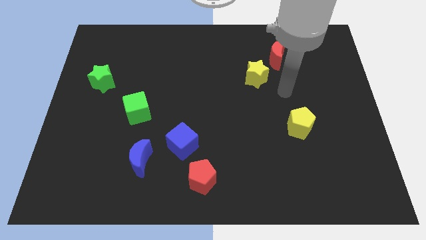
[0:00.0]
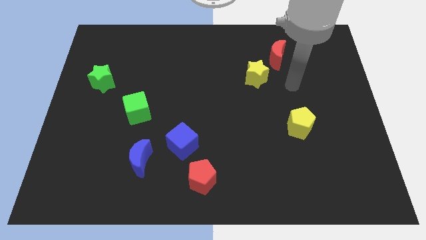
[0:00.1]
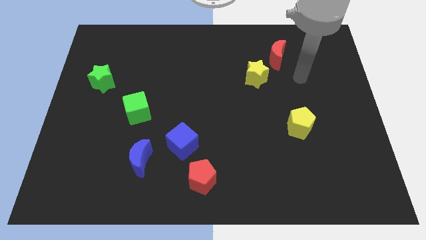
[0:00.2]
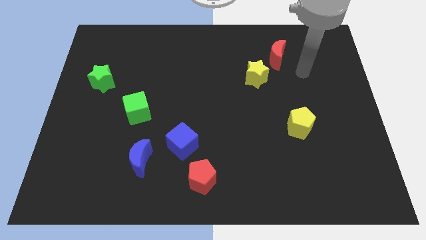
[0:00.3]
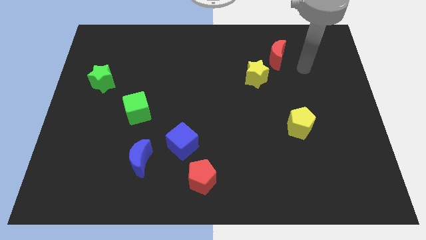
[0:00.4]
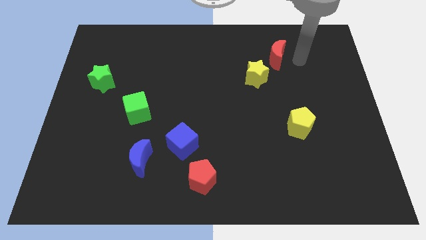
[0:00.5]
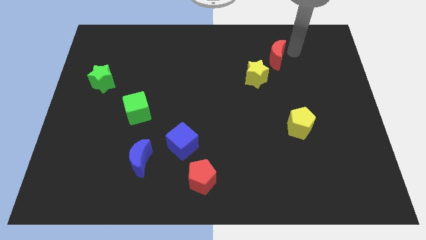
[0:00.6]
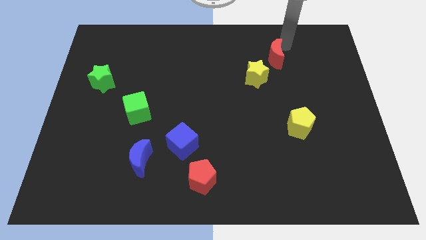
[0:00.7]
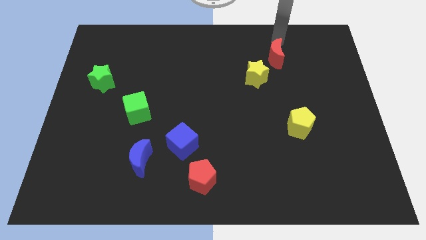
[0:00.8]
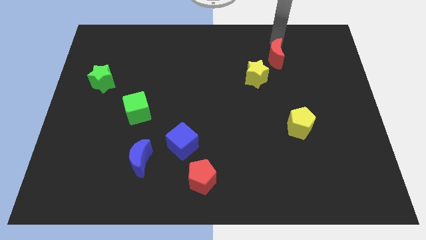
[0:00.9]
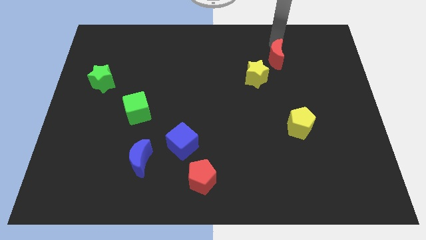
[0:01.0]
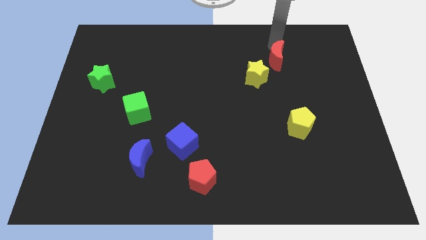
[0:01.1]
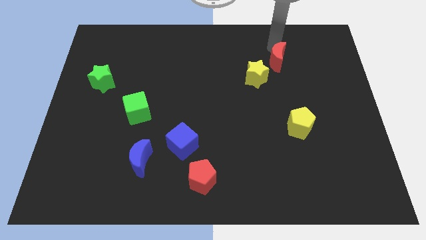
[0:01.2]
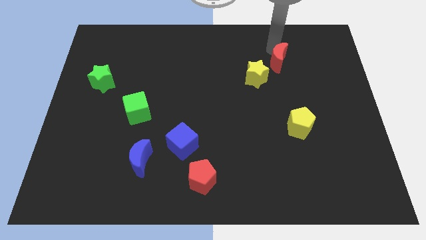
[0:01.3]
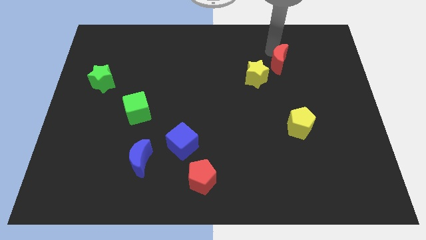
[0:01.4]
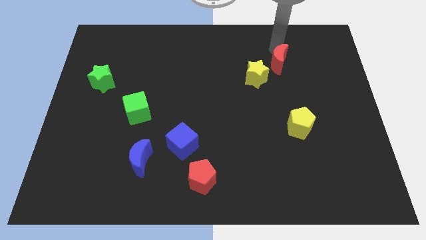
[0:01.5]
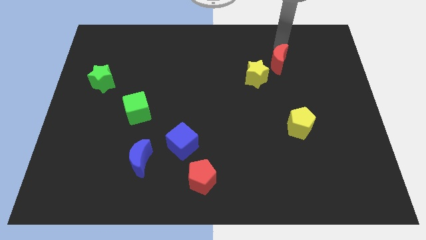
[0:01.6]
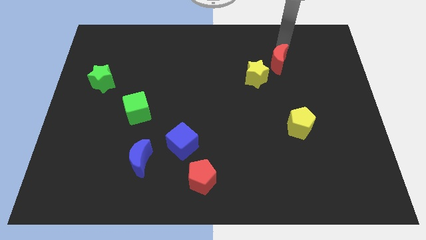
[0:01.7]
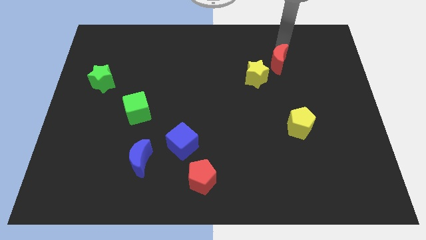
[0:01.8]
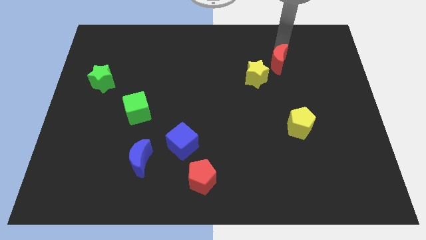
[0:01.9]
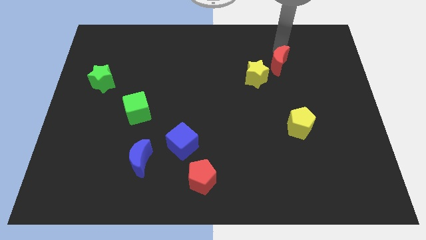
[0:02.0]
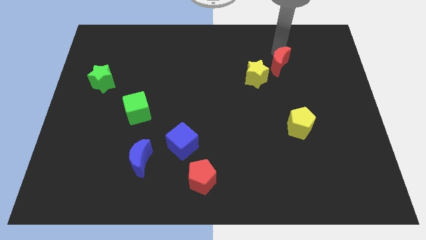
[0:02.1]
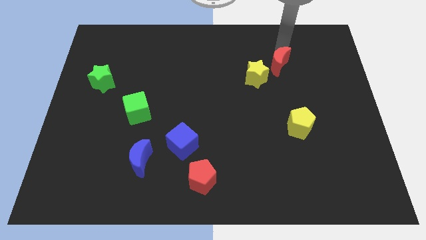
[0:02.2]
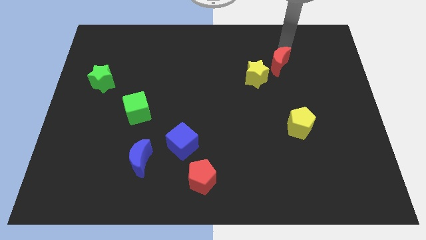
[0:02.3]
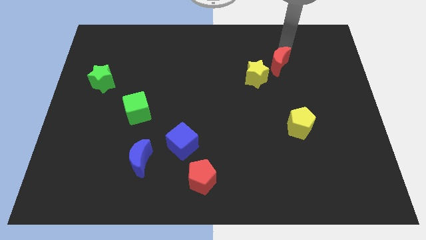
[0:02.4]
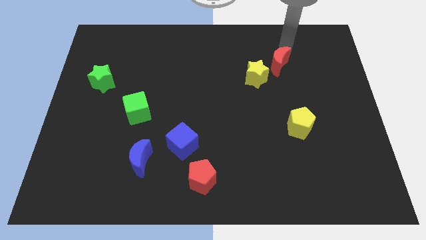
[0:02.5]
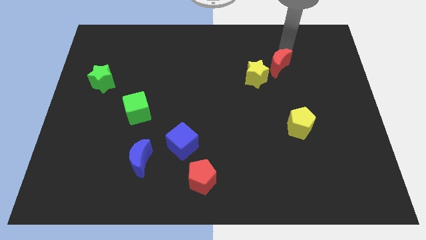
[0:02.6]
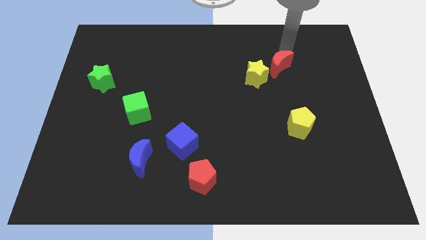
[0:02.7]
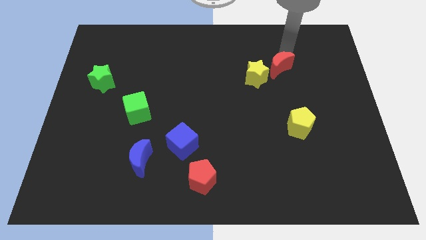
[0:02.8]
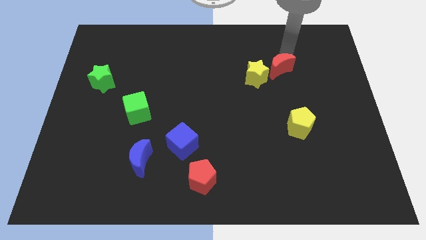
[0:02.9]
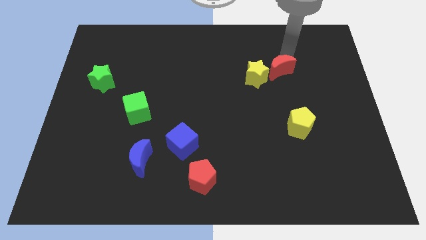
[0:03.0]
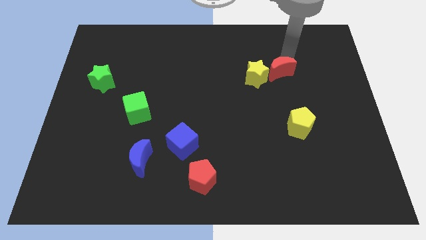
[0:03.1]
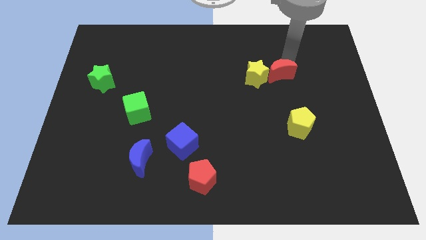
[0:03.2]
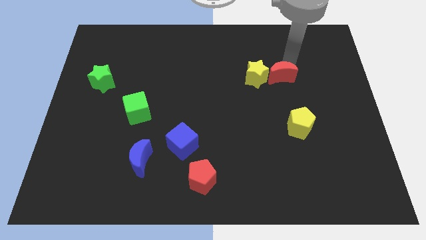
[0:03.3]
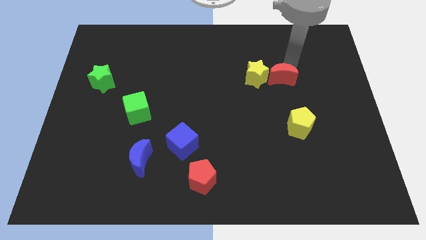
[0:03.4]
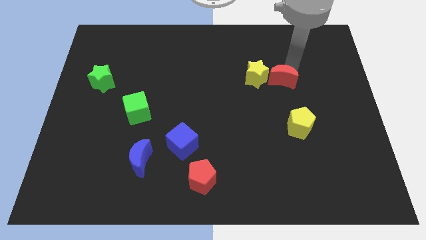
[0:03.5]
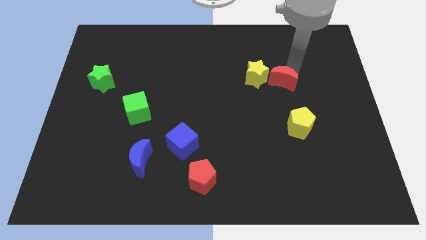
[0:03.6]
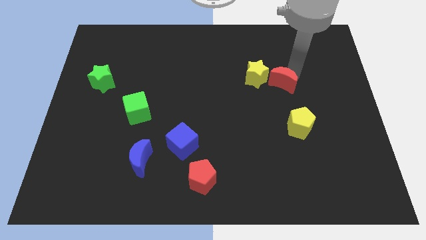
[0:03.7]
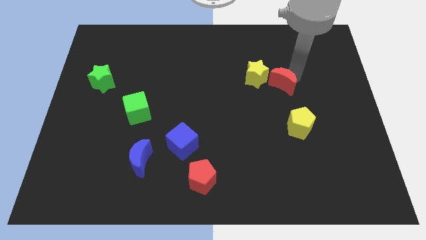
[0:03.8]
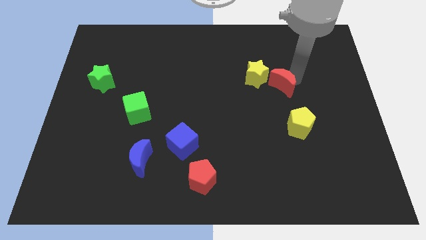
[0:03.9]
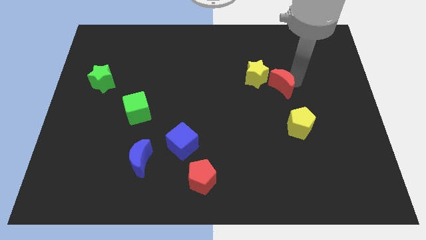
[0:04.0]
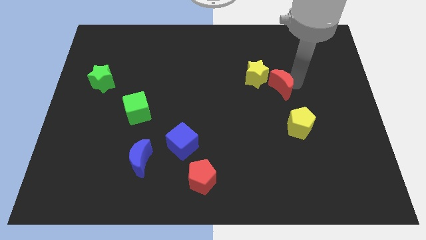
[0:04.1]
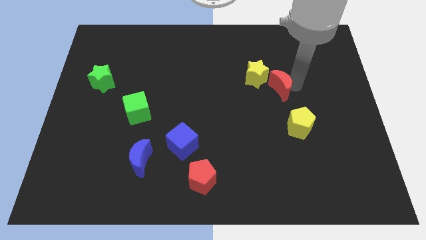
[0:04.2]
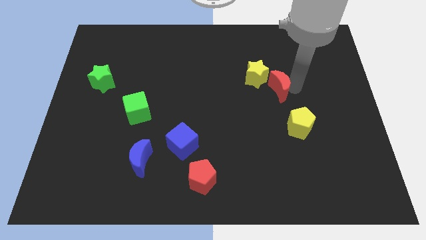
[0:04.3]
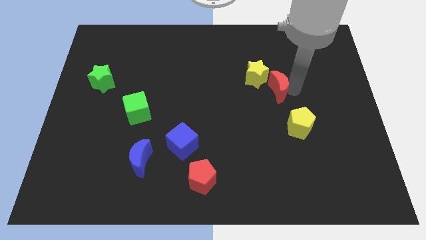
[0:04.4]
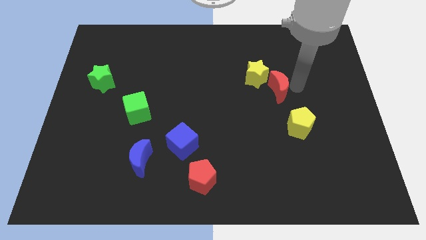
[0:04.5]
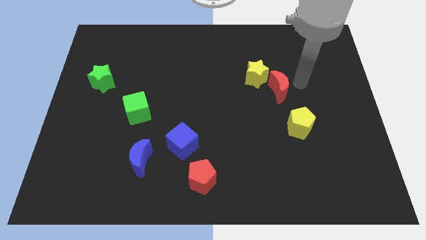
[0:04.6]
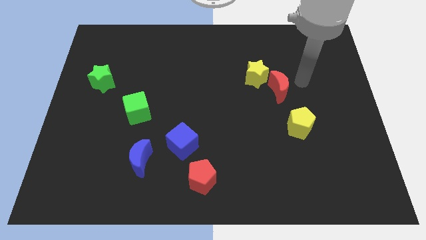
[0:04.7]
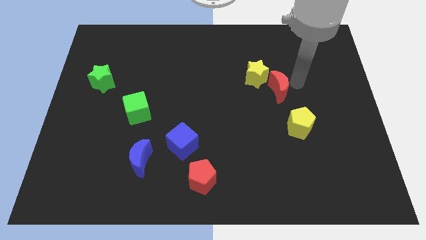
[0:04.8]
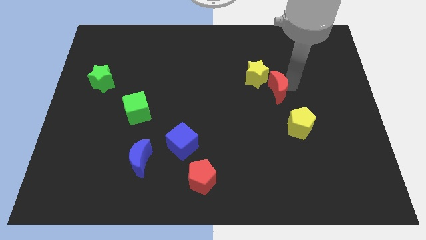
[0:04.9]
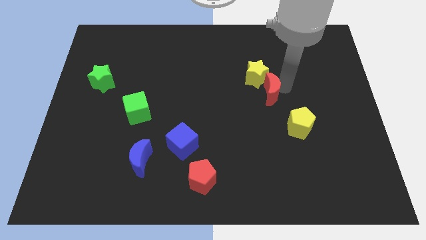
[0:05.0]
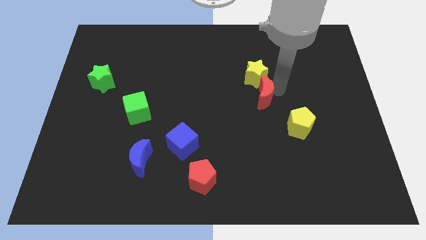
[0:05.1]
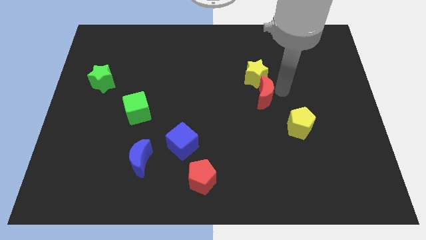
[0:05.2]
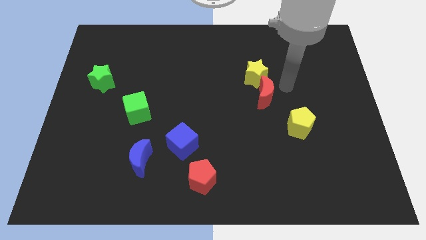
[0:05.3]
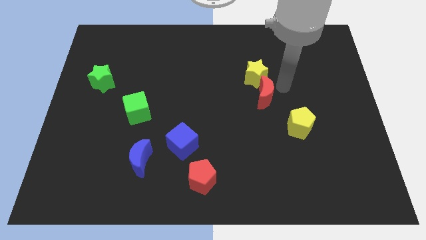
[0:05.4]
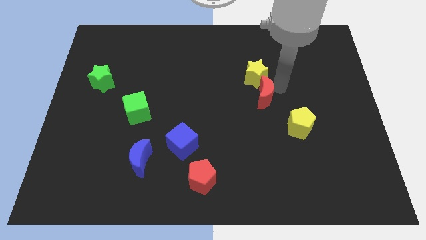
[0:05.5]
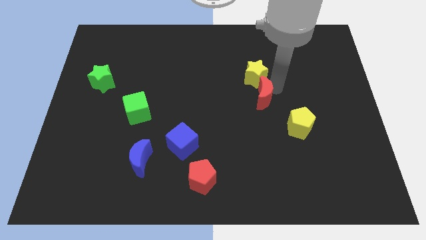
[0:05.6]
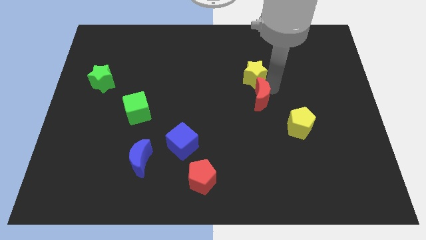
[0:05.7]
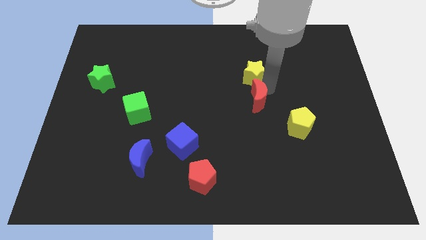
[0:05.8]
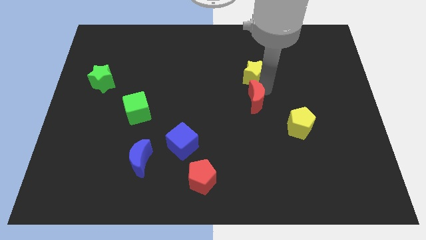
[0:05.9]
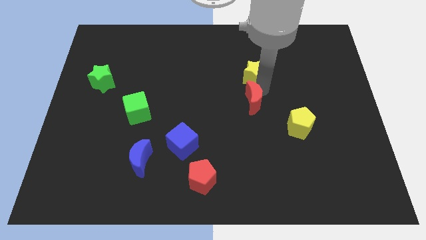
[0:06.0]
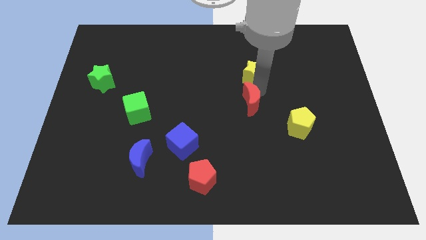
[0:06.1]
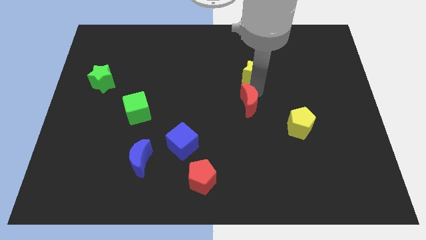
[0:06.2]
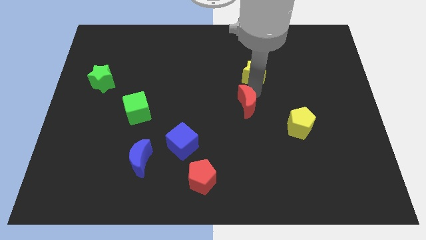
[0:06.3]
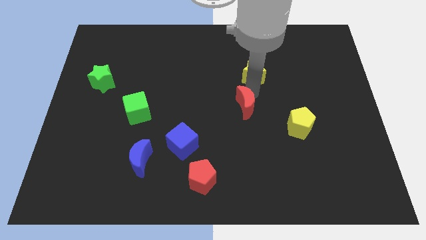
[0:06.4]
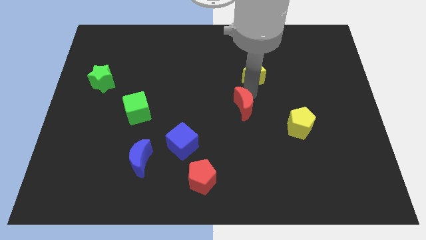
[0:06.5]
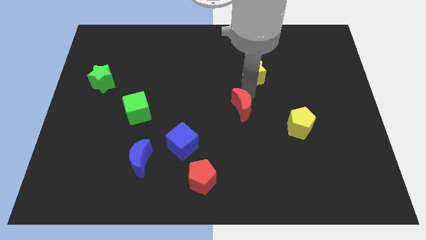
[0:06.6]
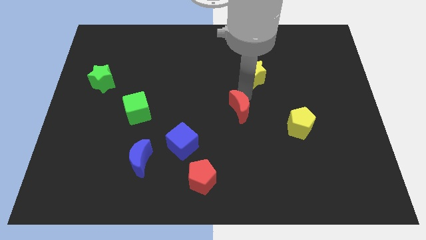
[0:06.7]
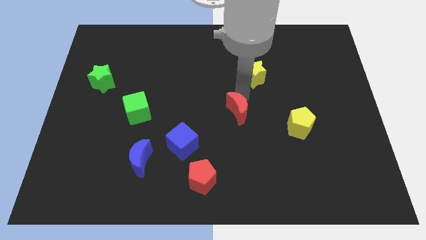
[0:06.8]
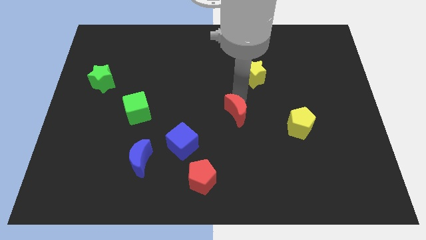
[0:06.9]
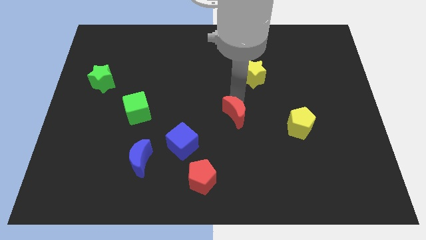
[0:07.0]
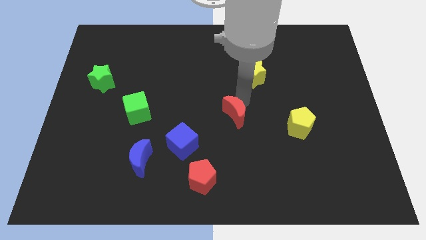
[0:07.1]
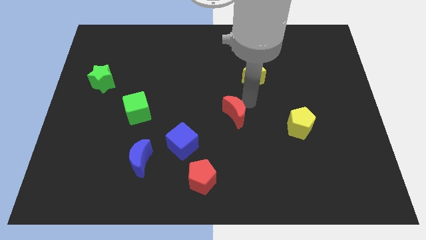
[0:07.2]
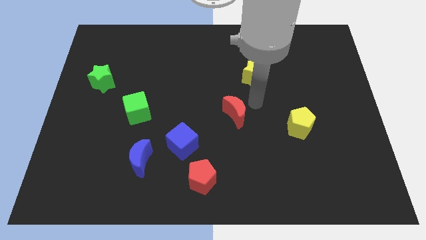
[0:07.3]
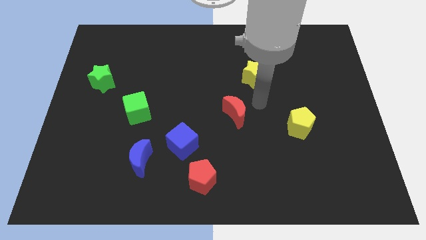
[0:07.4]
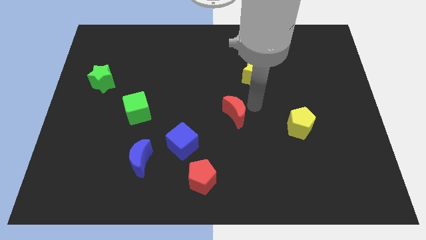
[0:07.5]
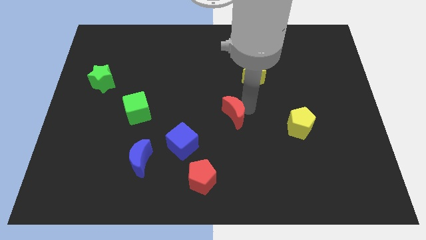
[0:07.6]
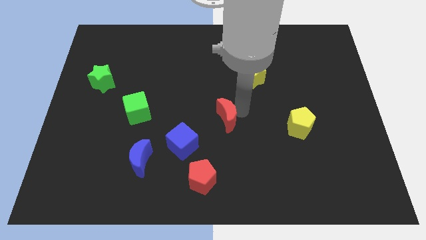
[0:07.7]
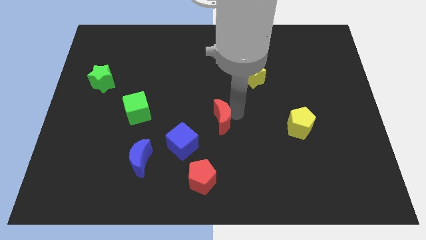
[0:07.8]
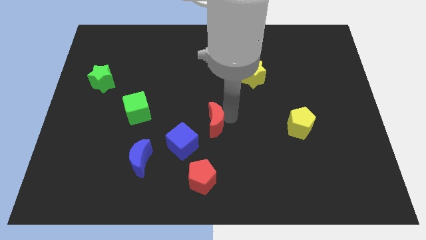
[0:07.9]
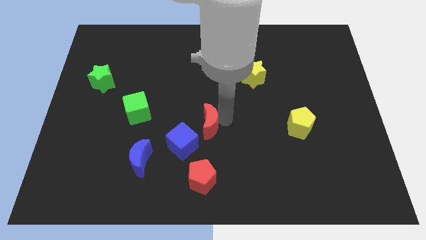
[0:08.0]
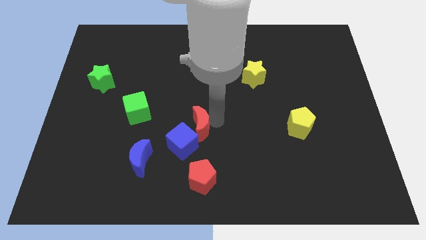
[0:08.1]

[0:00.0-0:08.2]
push the red moon close to the blue cube
